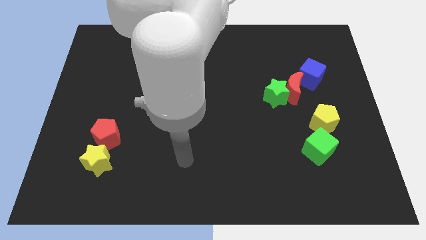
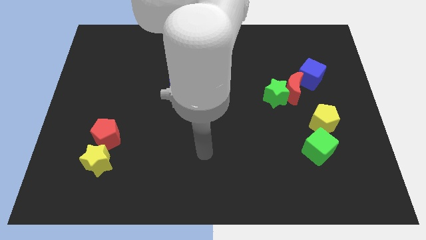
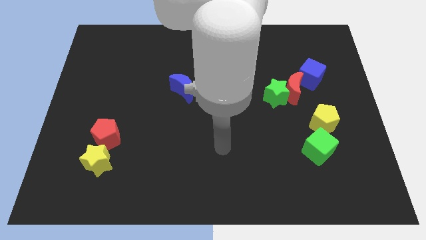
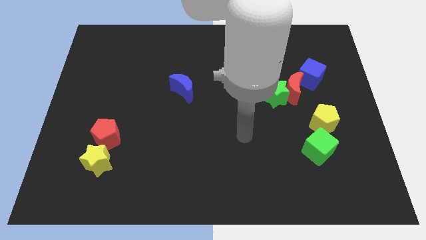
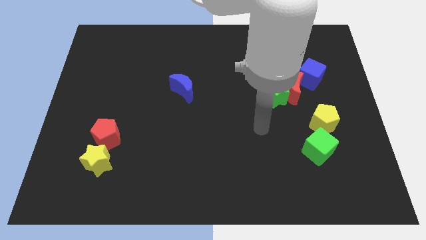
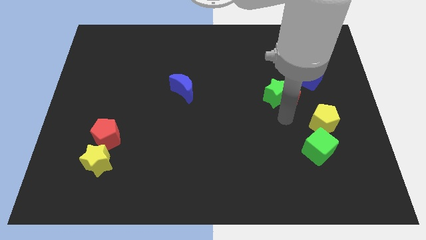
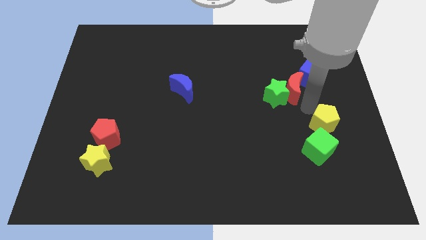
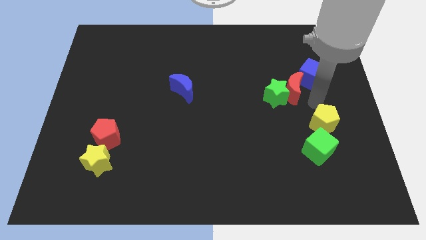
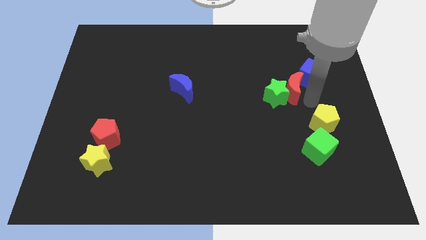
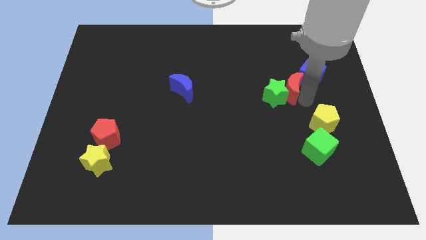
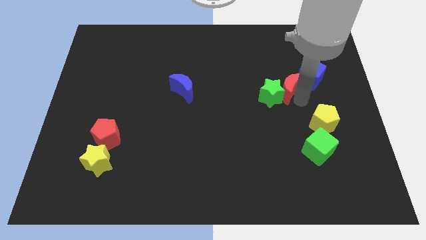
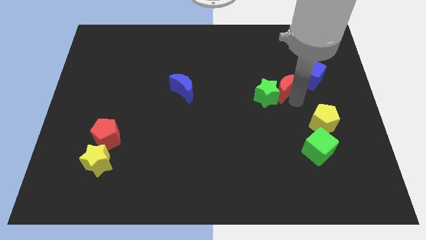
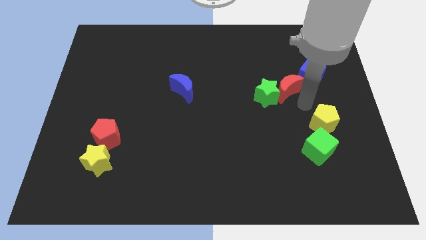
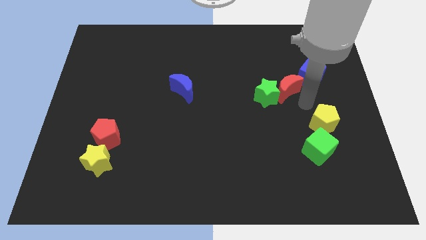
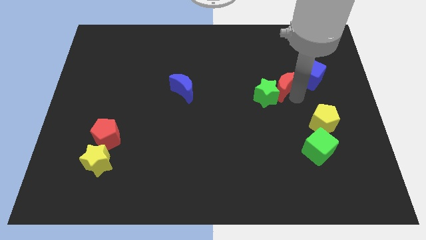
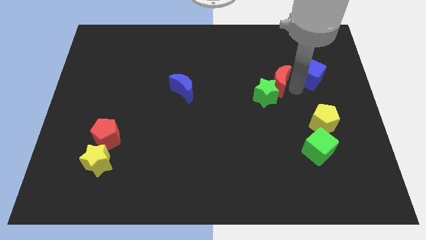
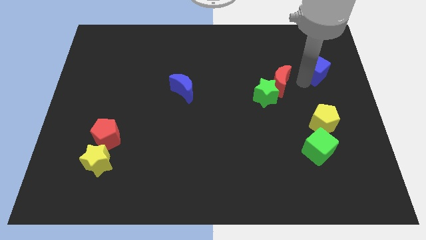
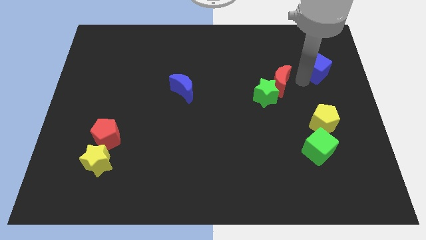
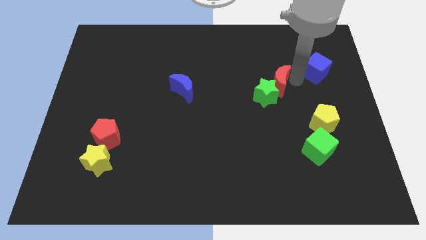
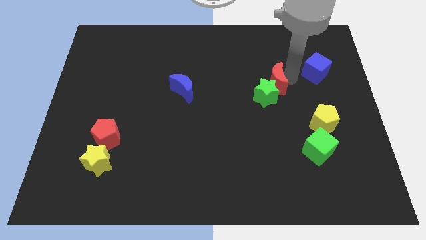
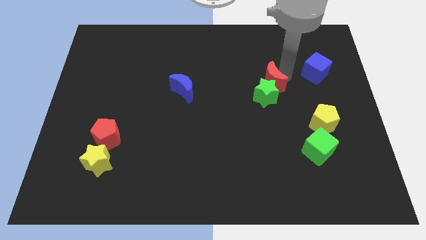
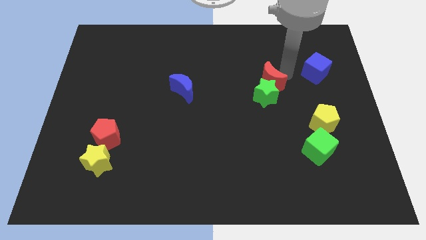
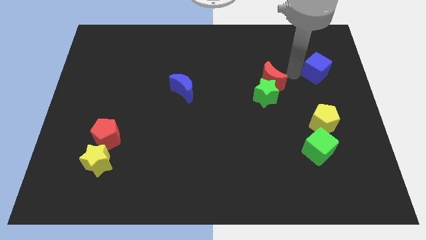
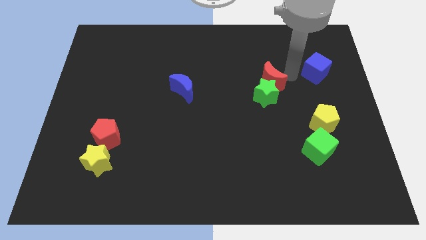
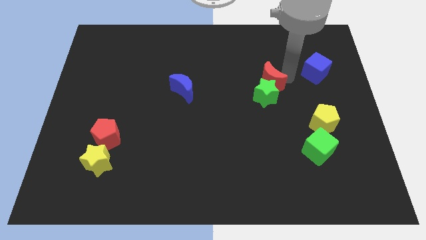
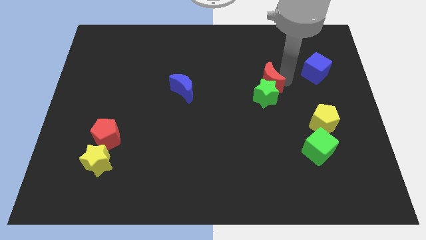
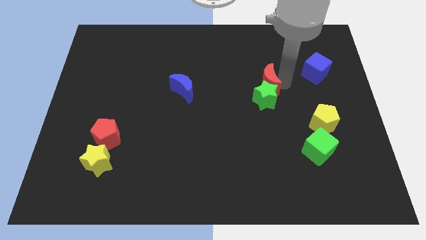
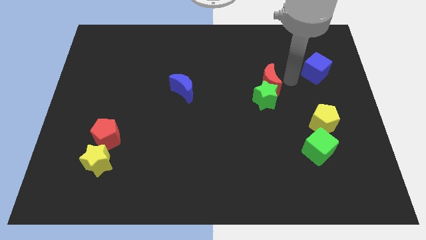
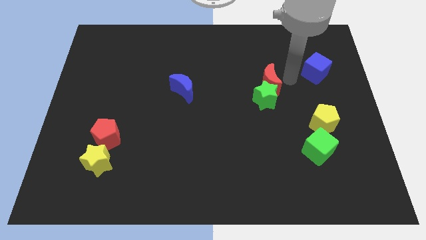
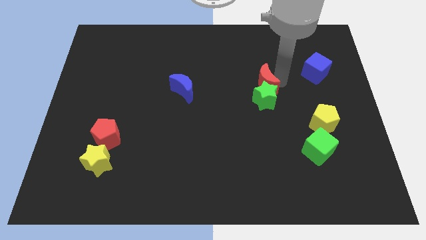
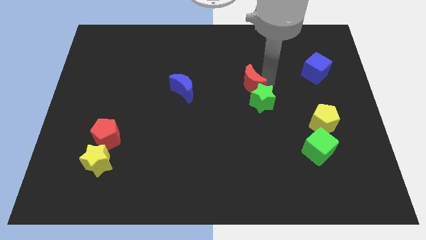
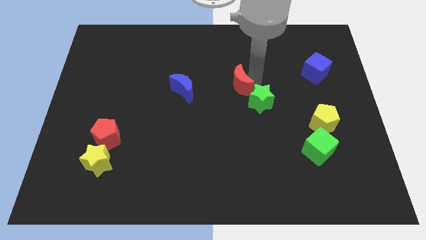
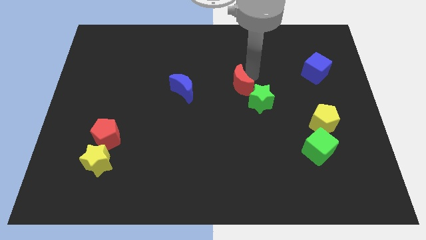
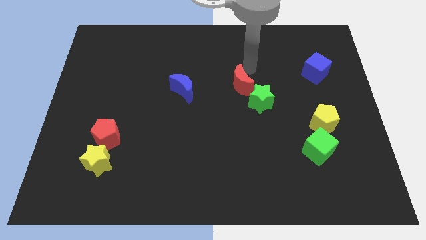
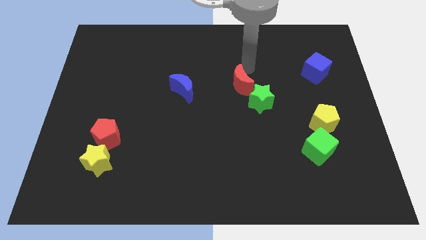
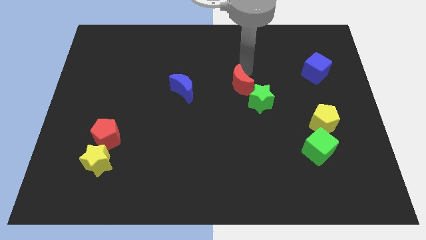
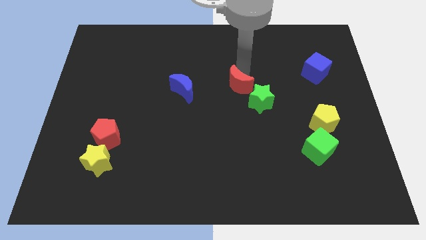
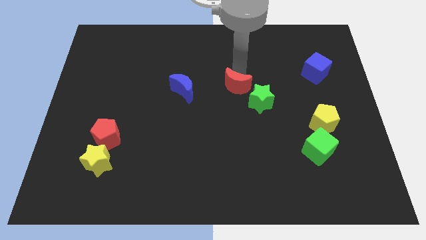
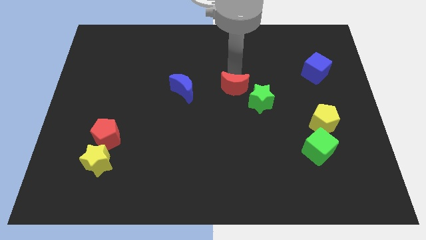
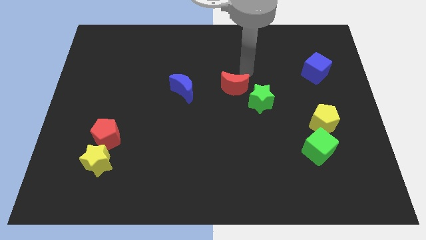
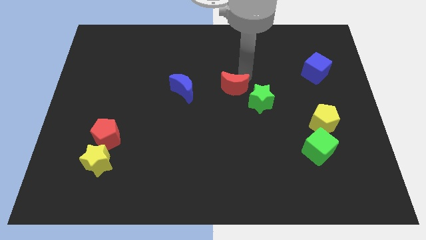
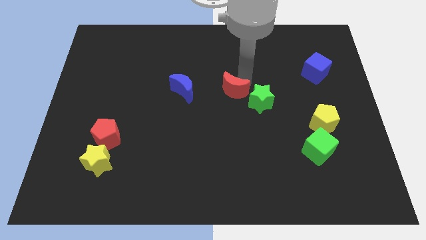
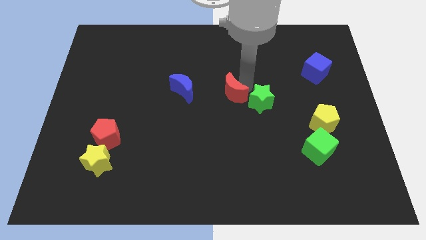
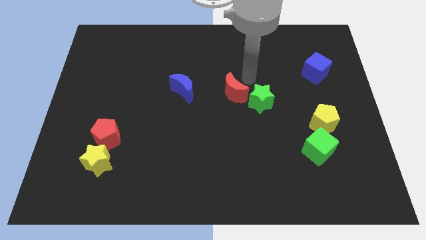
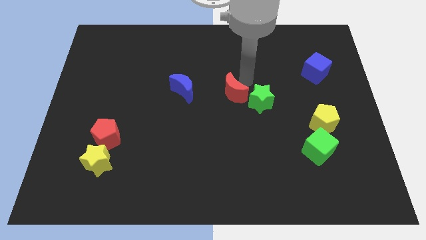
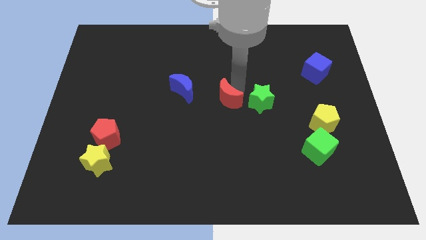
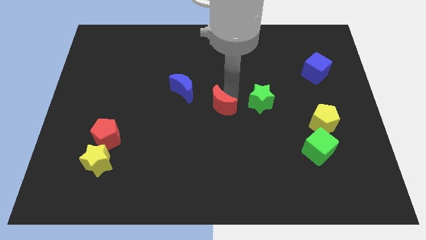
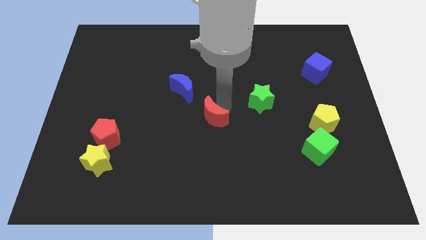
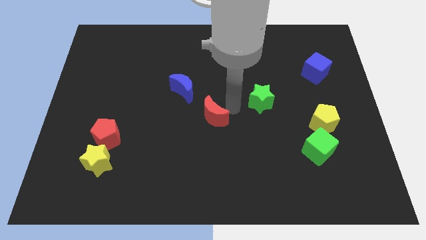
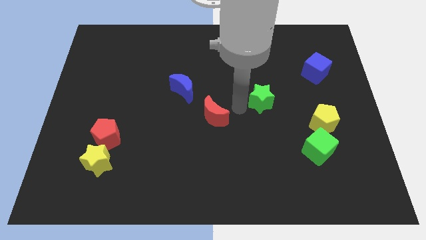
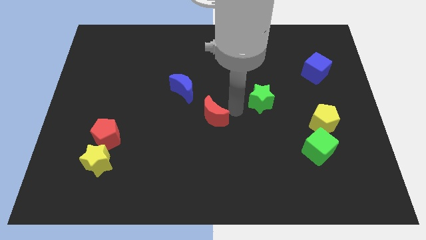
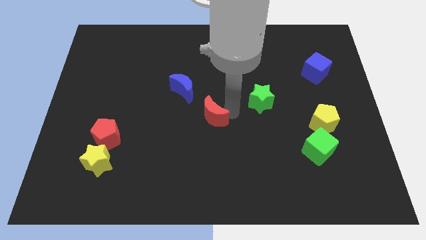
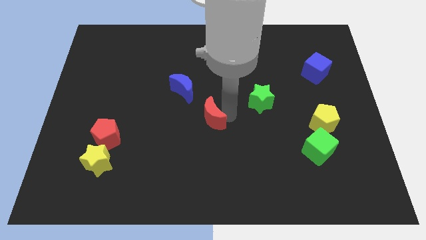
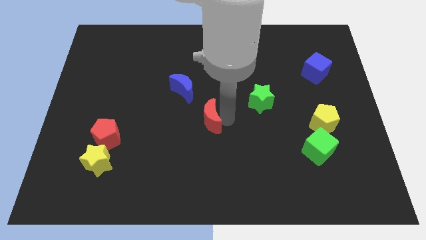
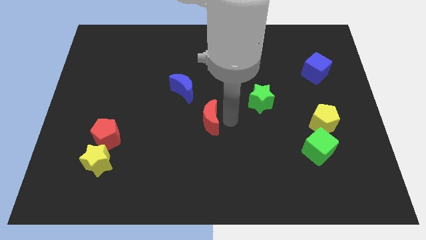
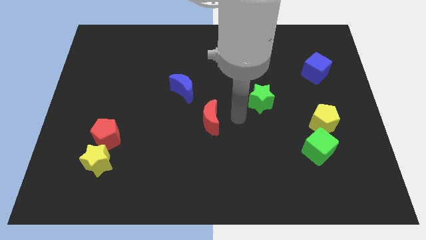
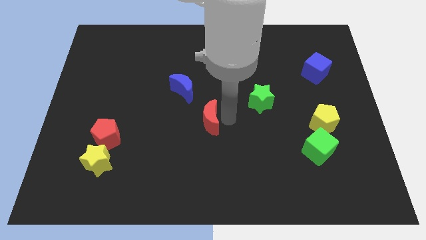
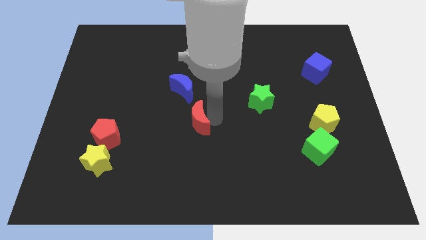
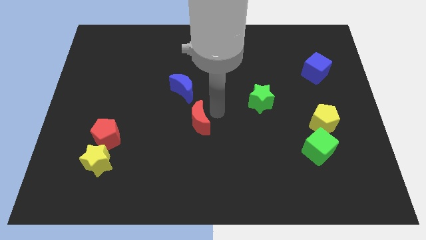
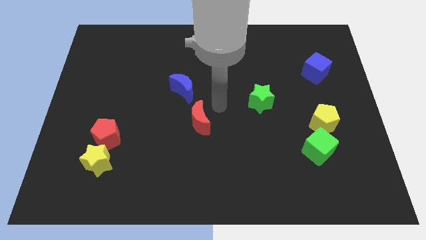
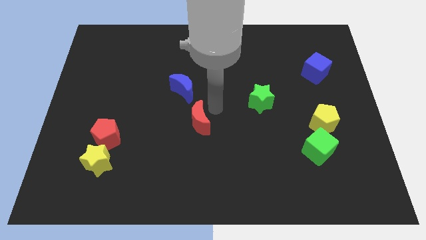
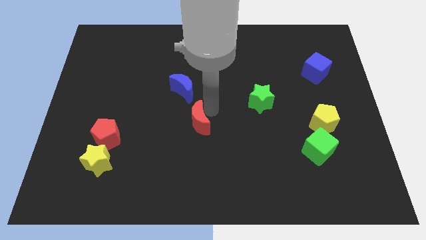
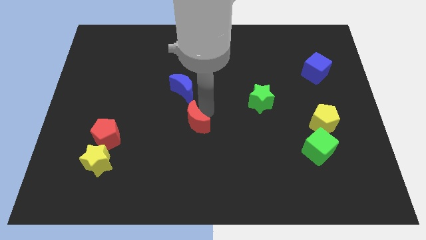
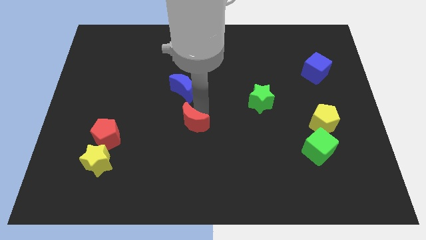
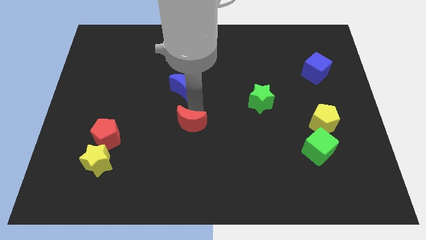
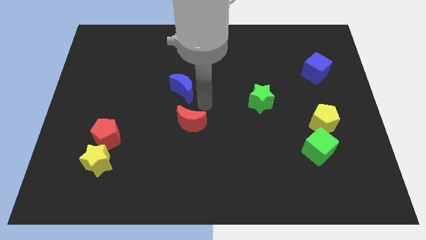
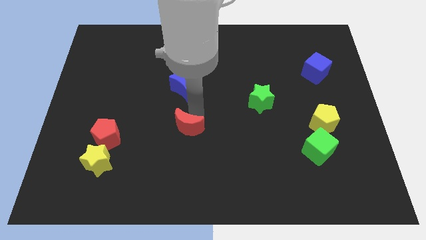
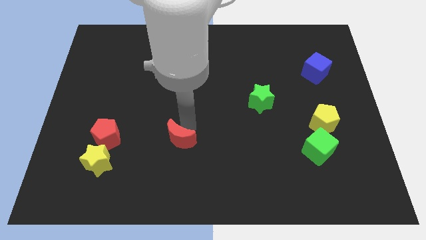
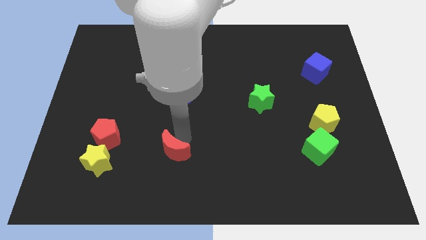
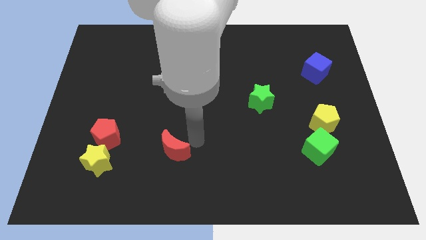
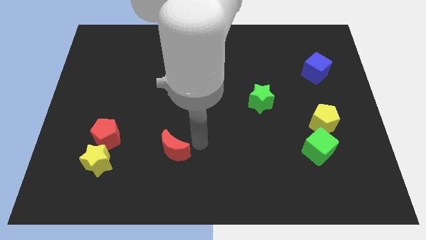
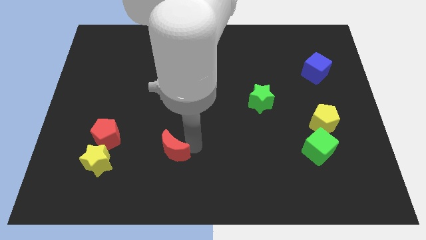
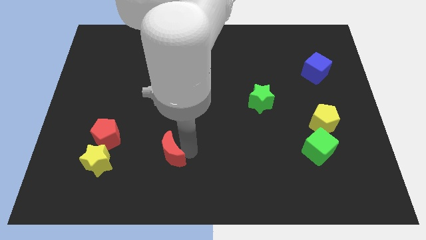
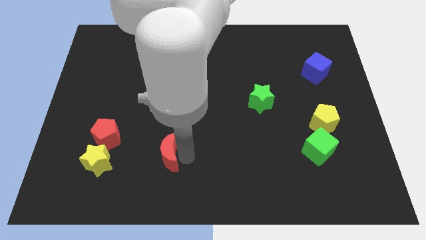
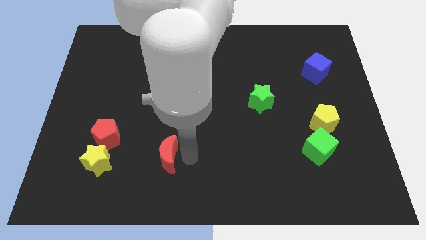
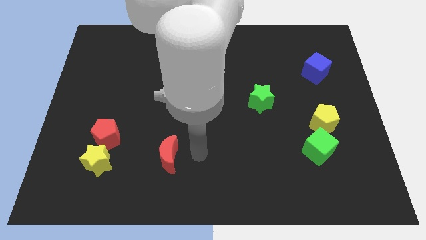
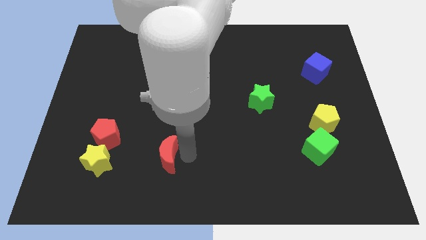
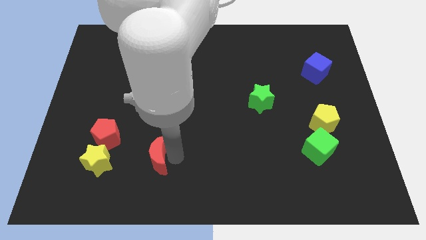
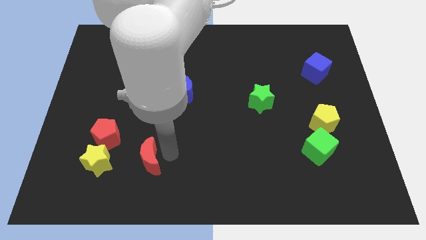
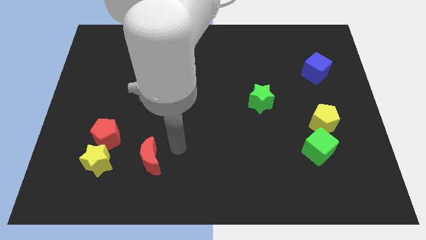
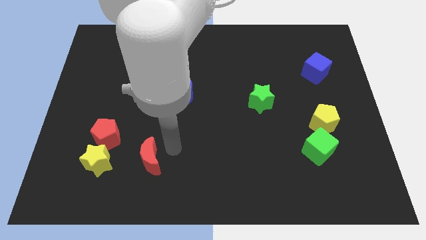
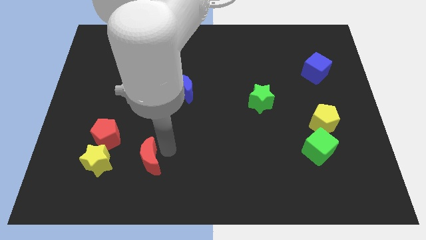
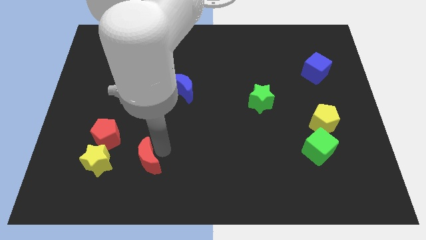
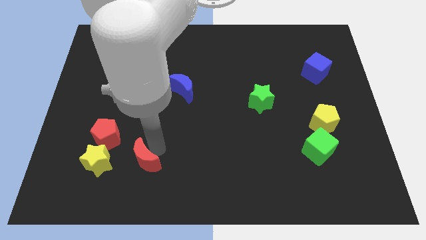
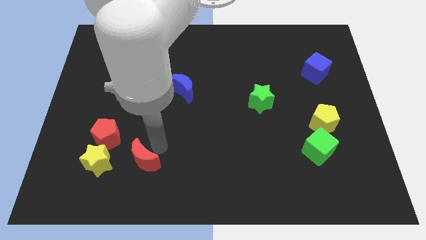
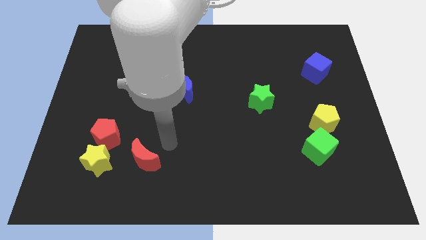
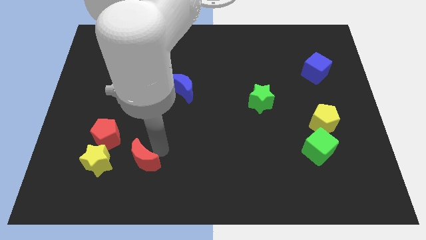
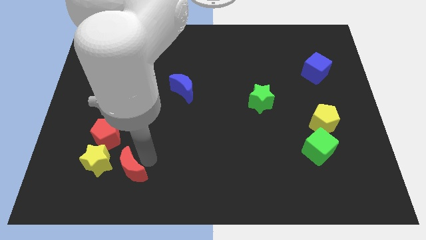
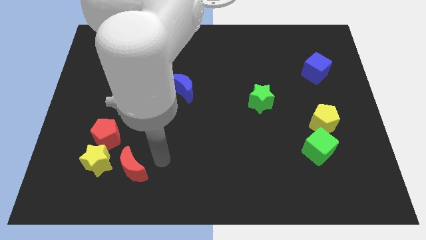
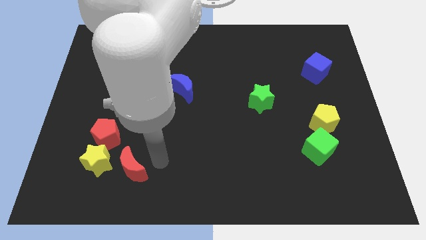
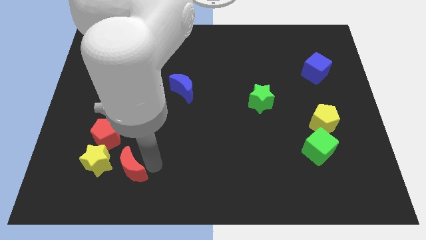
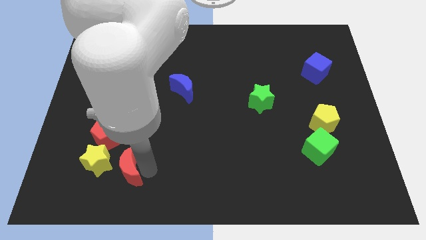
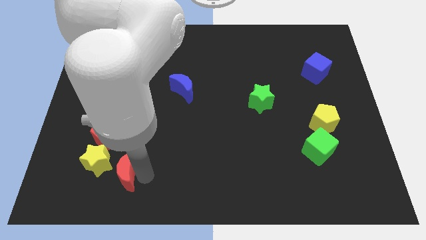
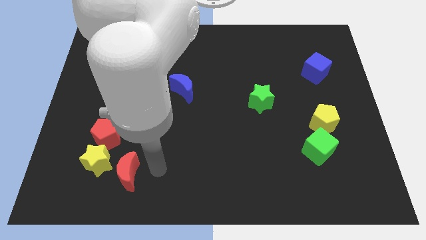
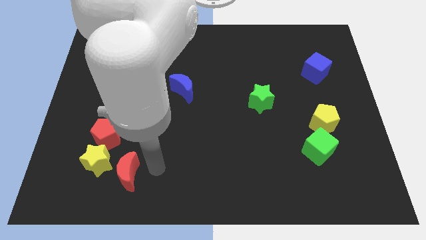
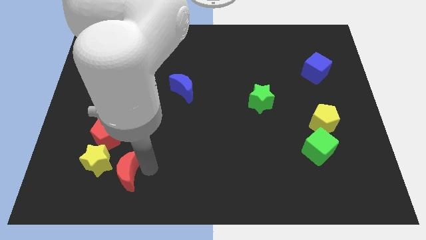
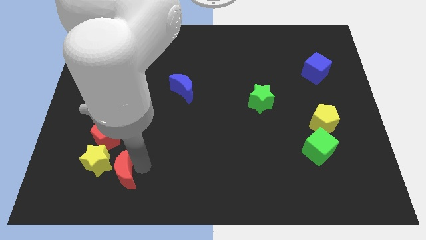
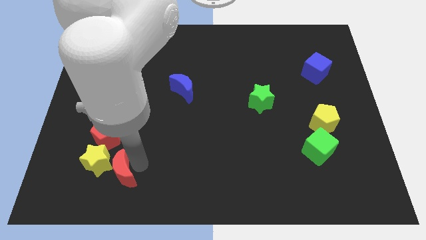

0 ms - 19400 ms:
slide the red moon below the red pentagon
